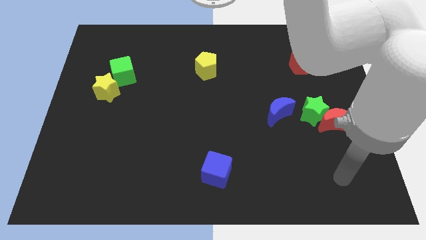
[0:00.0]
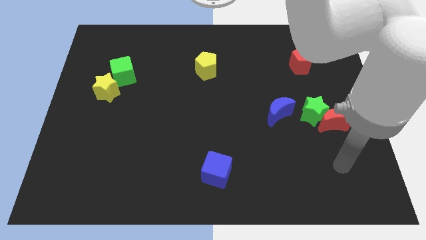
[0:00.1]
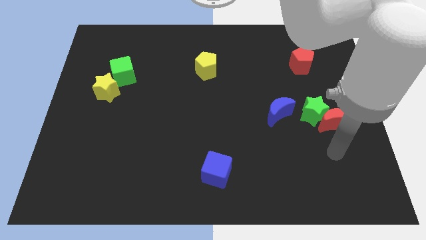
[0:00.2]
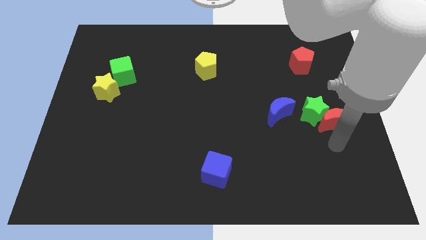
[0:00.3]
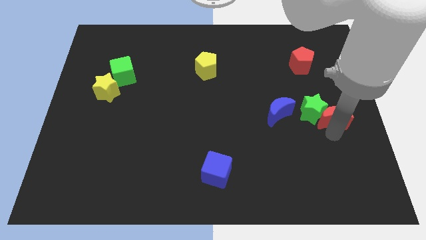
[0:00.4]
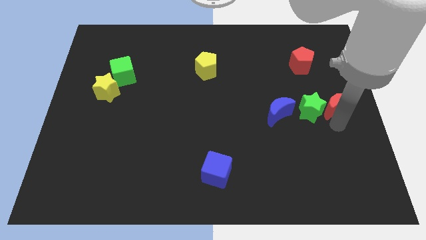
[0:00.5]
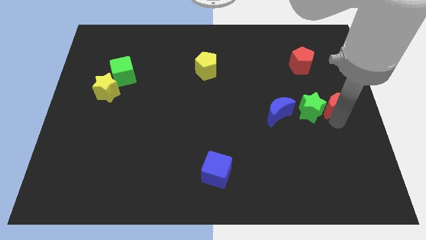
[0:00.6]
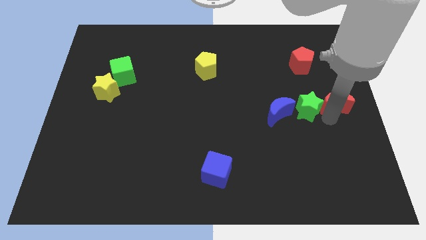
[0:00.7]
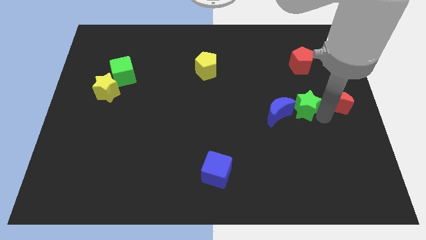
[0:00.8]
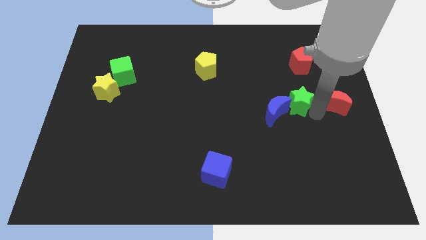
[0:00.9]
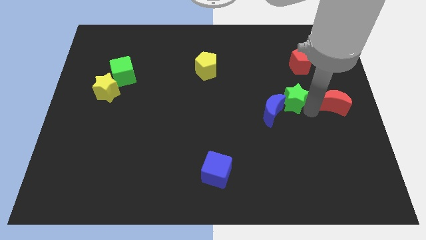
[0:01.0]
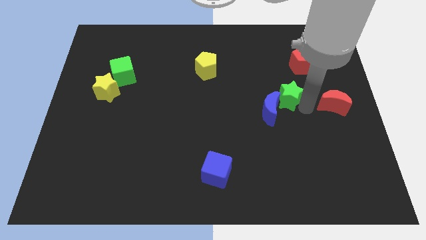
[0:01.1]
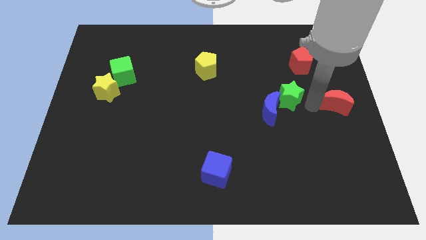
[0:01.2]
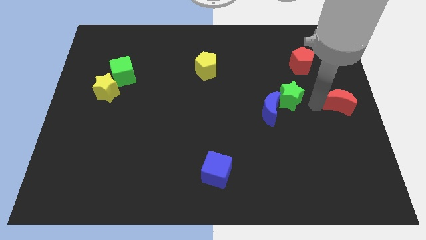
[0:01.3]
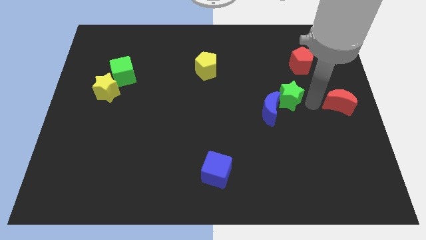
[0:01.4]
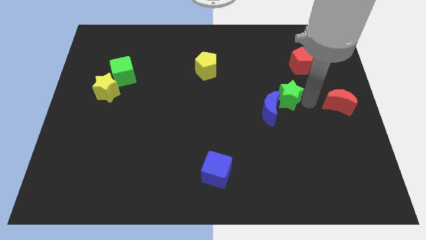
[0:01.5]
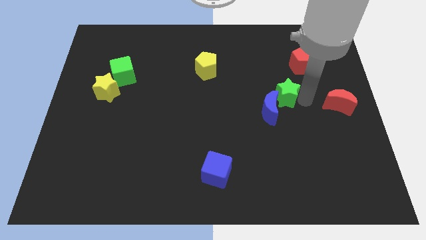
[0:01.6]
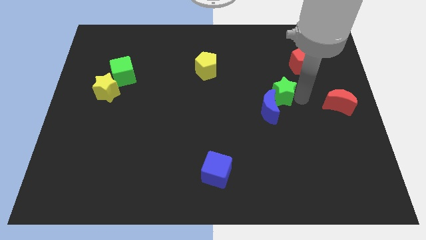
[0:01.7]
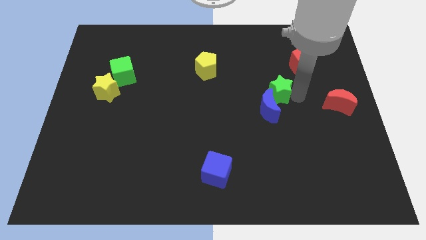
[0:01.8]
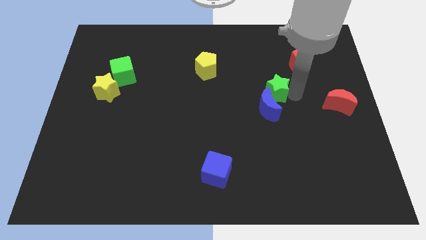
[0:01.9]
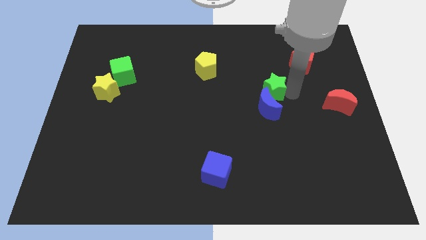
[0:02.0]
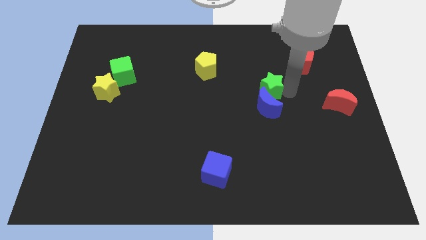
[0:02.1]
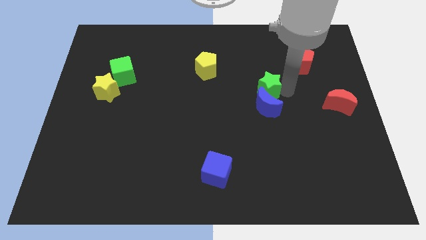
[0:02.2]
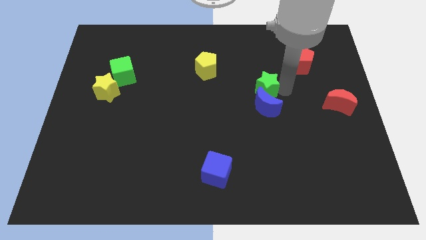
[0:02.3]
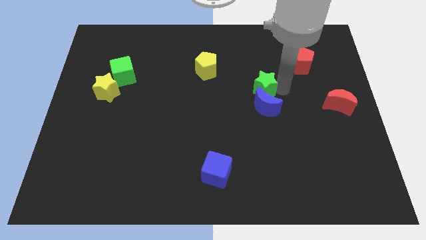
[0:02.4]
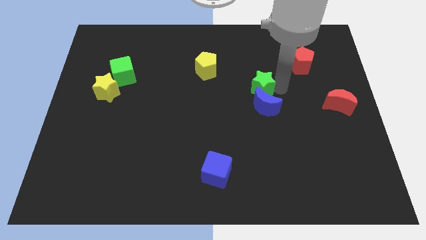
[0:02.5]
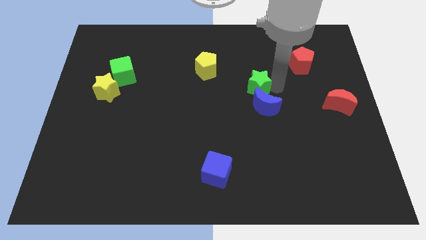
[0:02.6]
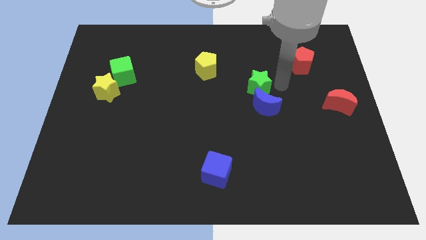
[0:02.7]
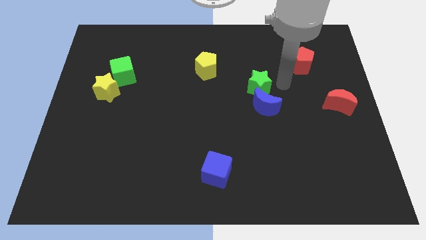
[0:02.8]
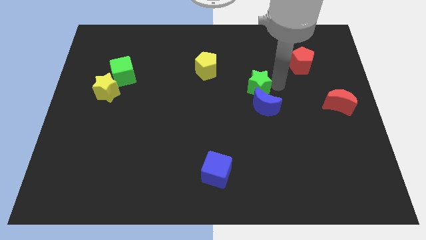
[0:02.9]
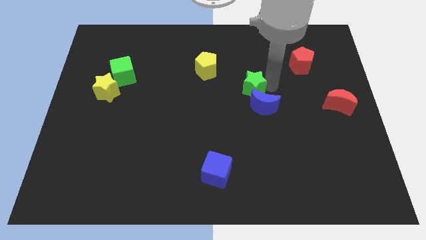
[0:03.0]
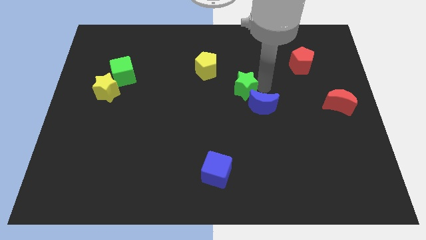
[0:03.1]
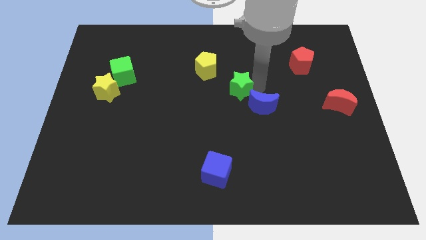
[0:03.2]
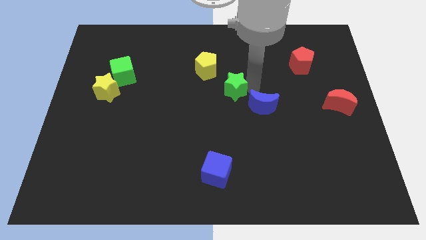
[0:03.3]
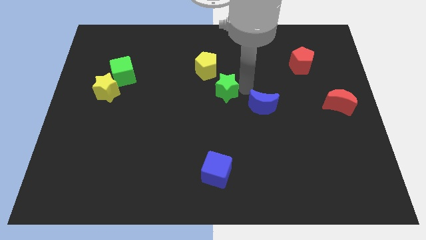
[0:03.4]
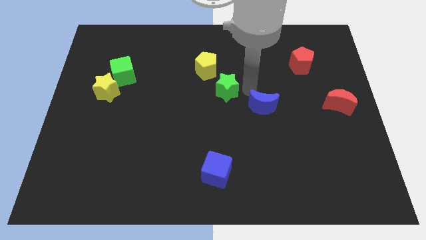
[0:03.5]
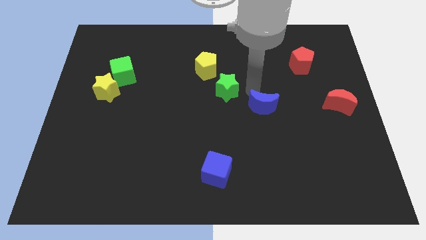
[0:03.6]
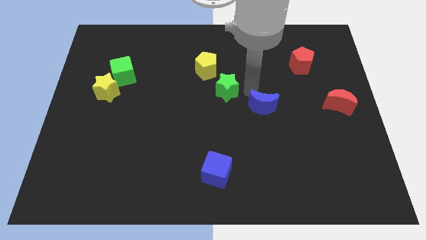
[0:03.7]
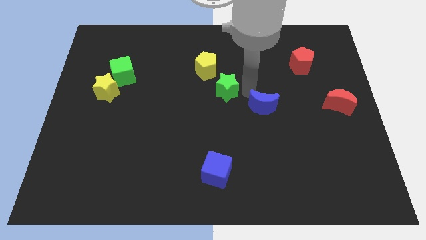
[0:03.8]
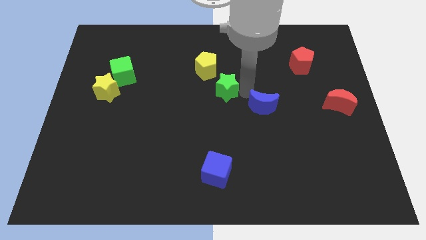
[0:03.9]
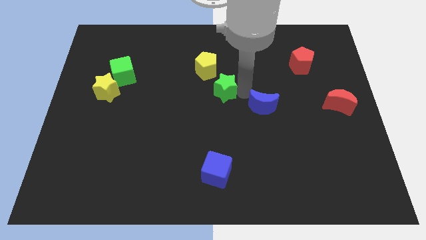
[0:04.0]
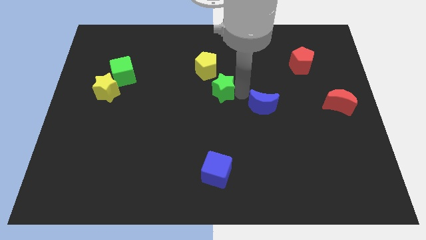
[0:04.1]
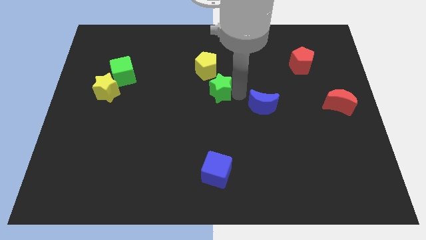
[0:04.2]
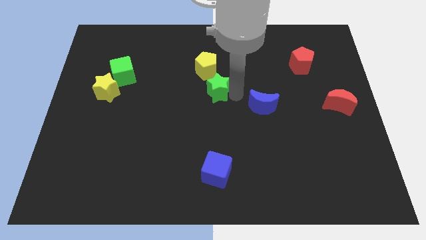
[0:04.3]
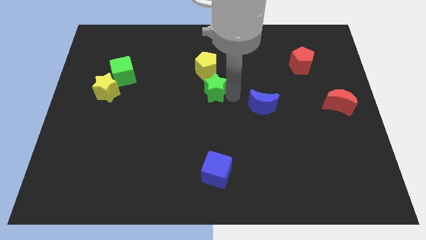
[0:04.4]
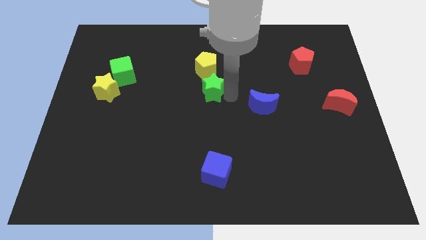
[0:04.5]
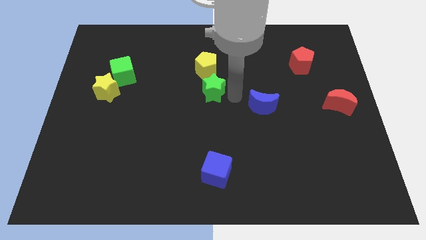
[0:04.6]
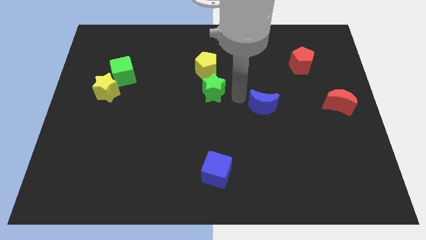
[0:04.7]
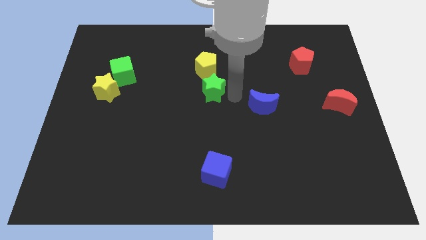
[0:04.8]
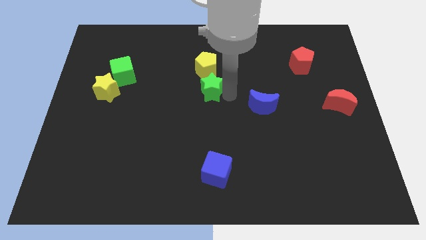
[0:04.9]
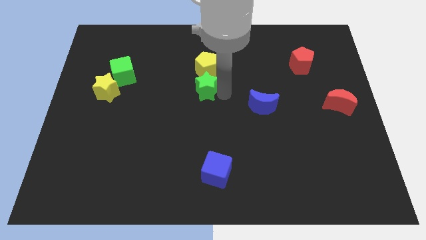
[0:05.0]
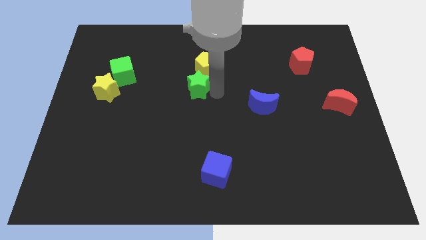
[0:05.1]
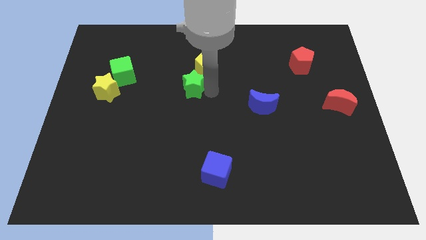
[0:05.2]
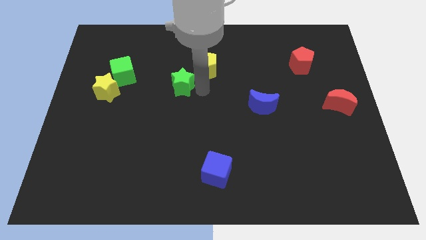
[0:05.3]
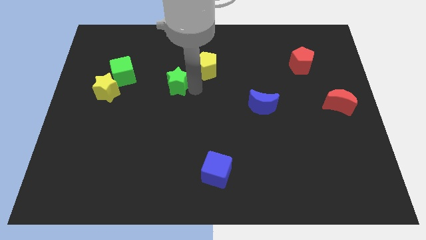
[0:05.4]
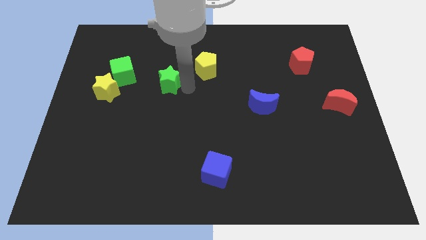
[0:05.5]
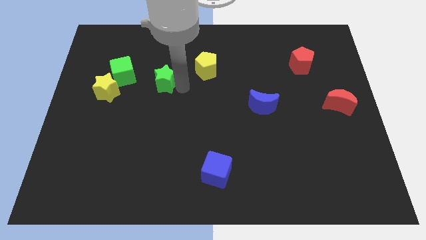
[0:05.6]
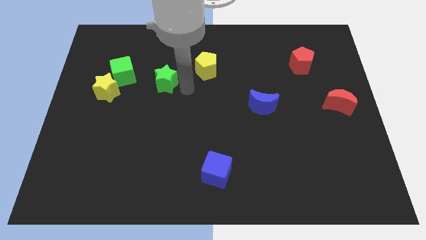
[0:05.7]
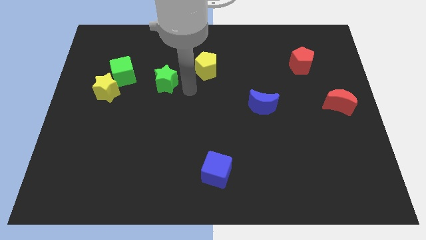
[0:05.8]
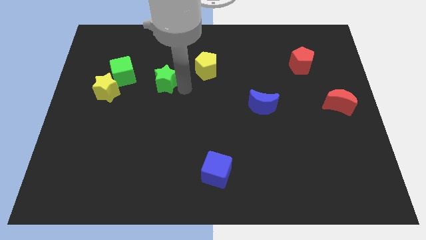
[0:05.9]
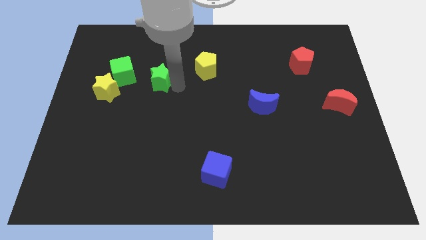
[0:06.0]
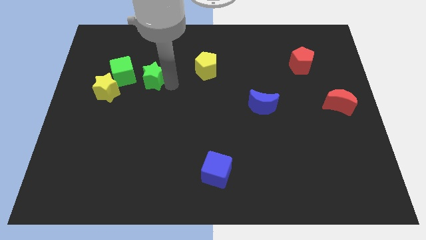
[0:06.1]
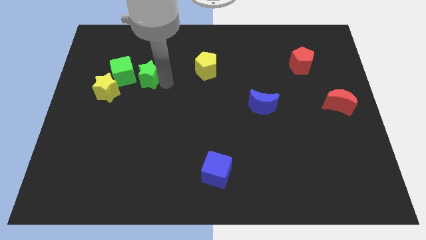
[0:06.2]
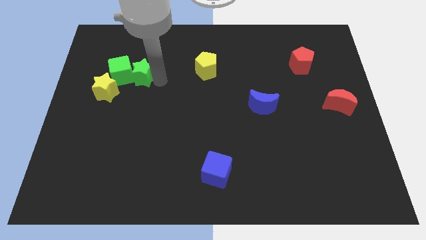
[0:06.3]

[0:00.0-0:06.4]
put the green star towards the green cube

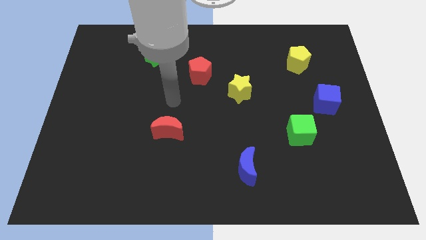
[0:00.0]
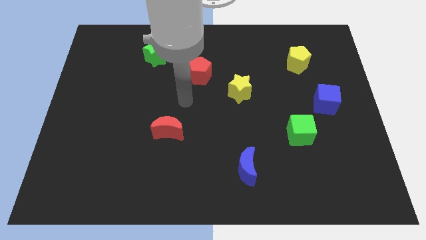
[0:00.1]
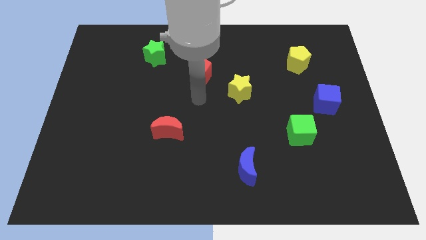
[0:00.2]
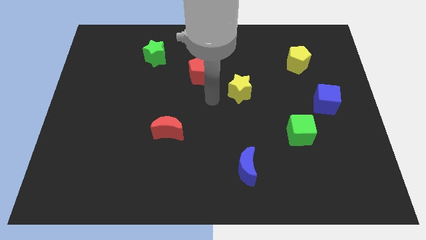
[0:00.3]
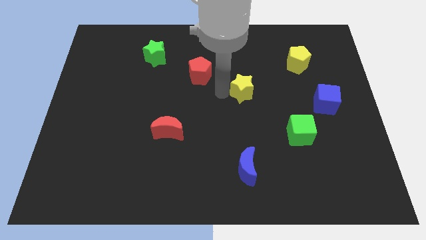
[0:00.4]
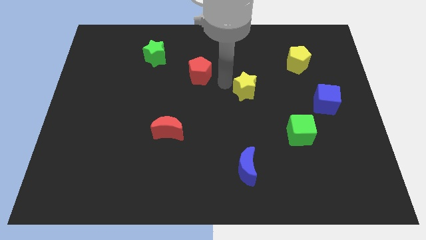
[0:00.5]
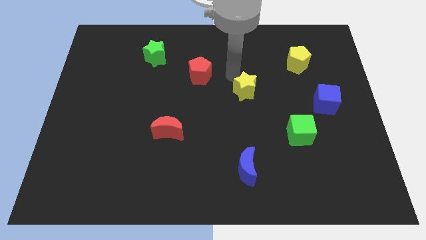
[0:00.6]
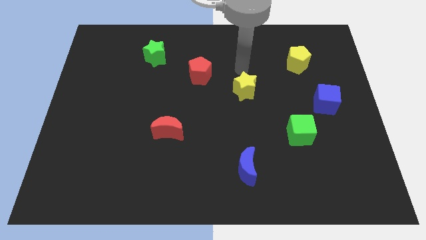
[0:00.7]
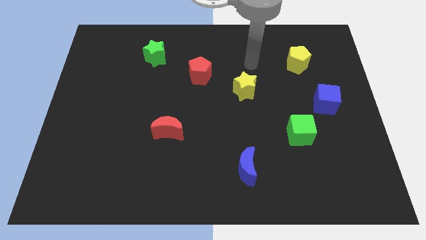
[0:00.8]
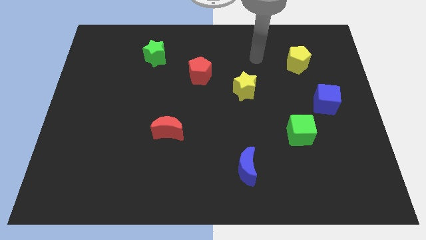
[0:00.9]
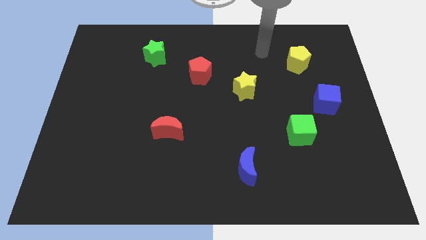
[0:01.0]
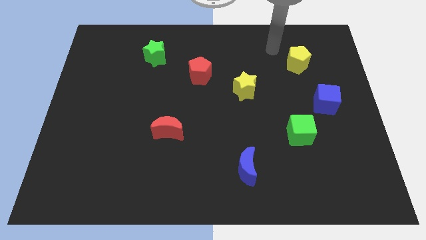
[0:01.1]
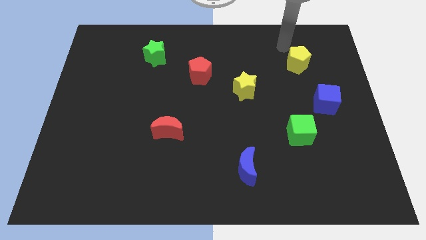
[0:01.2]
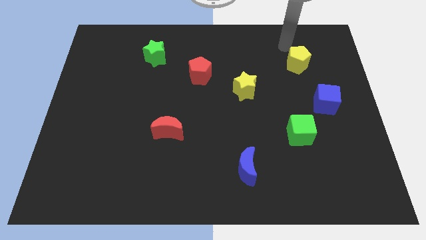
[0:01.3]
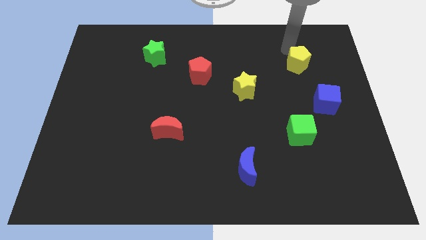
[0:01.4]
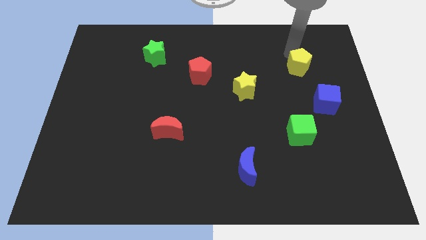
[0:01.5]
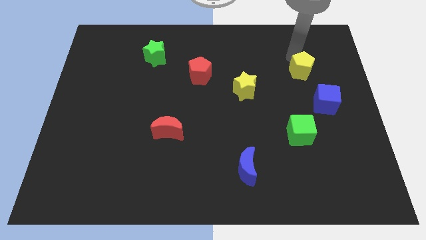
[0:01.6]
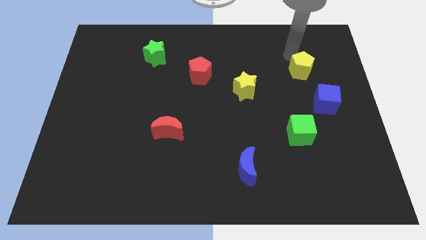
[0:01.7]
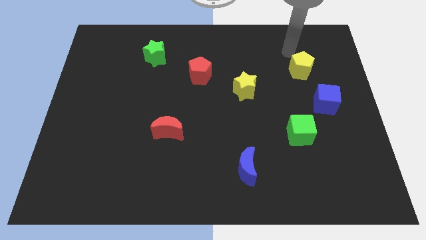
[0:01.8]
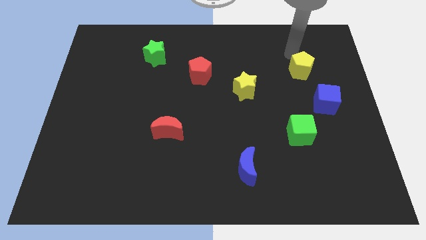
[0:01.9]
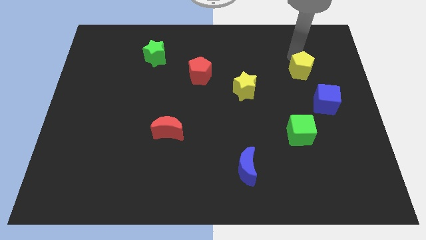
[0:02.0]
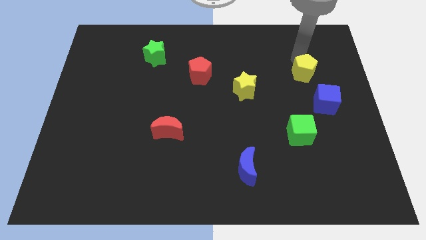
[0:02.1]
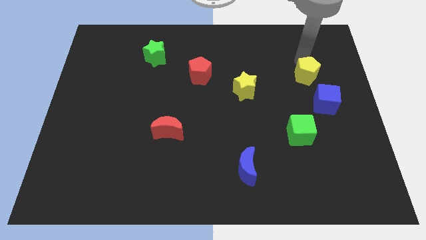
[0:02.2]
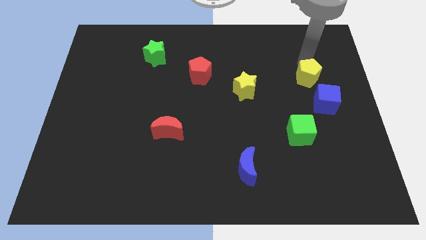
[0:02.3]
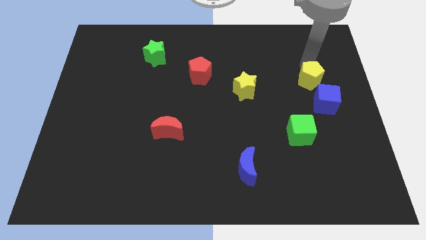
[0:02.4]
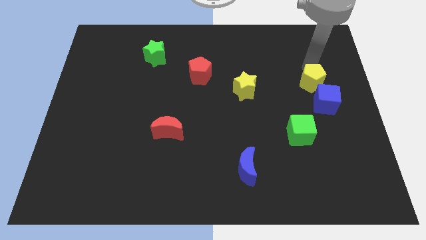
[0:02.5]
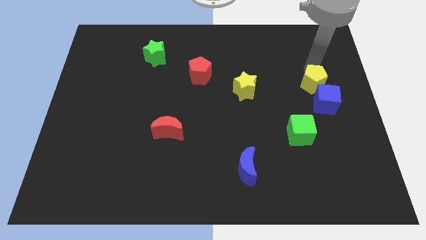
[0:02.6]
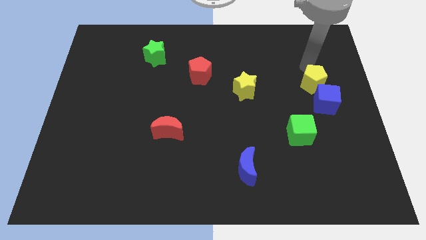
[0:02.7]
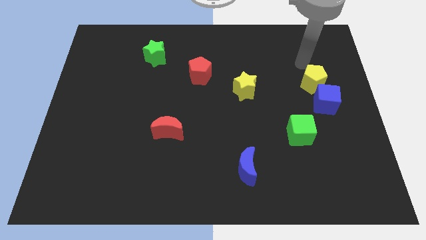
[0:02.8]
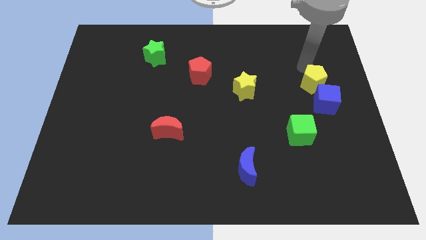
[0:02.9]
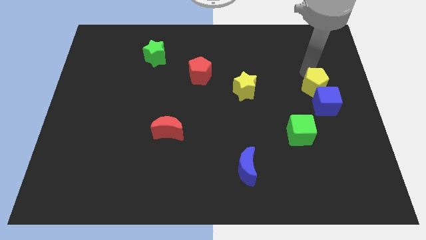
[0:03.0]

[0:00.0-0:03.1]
move the yellow pentagon towards the blue cube
